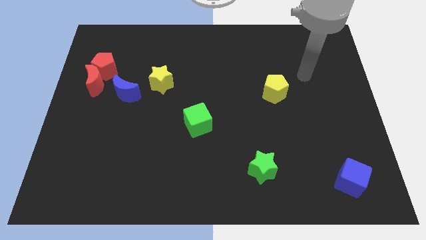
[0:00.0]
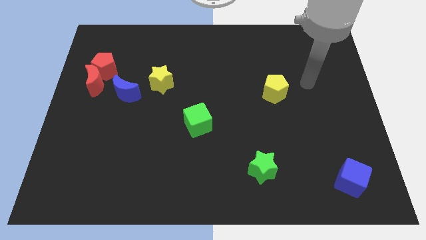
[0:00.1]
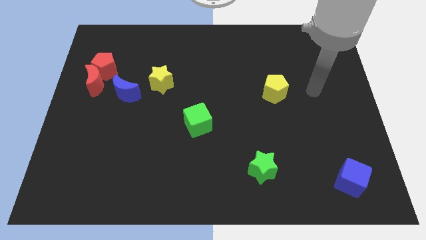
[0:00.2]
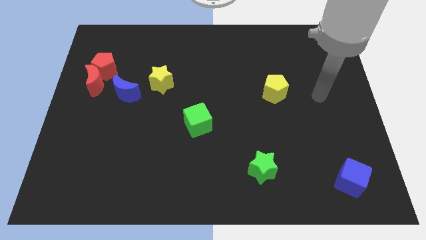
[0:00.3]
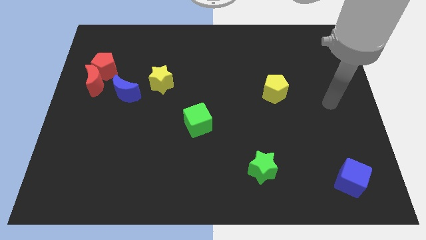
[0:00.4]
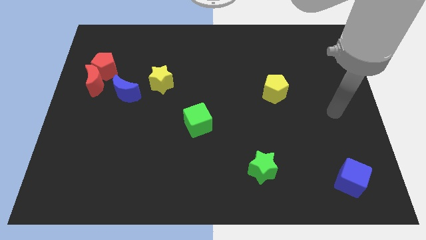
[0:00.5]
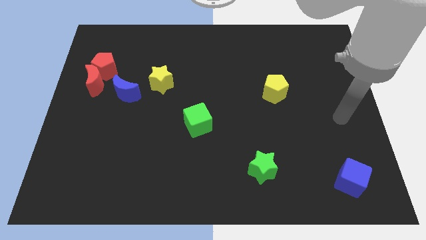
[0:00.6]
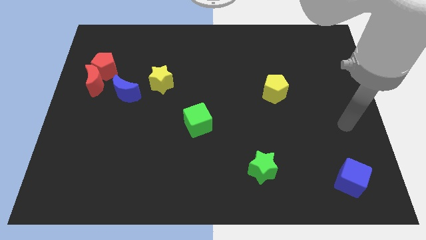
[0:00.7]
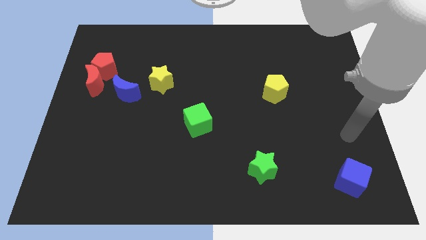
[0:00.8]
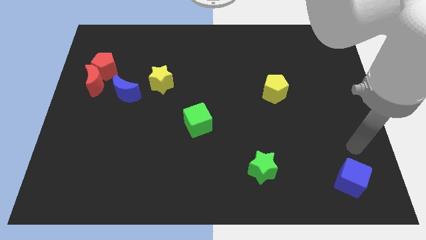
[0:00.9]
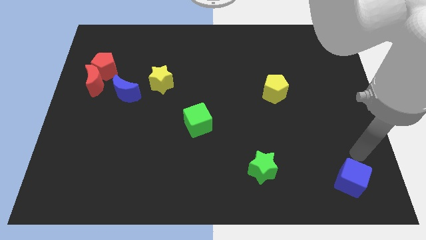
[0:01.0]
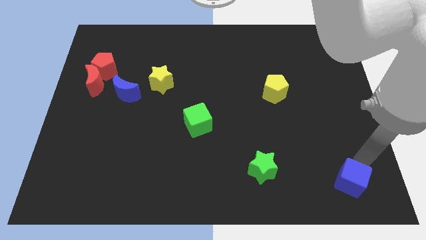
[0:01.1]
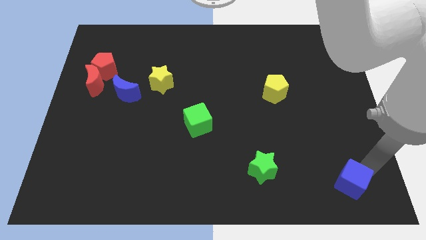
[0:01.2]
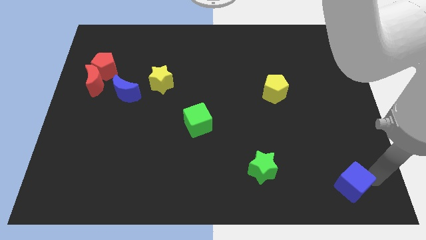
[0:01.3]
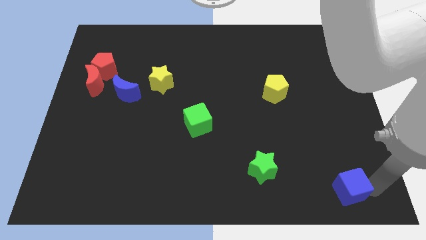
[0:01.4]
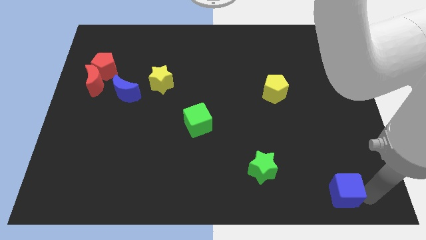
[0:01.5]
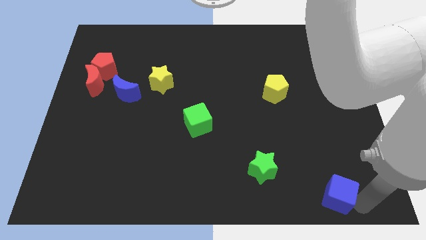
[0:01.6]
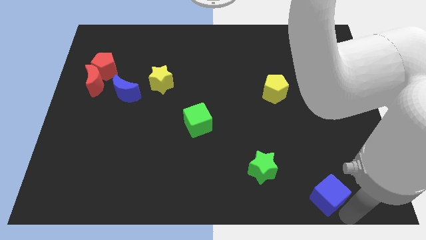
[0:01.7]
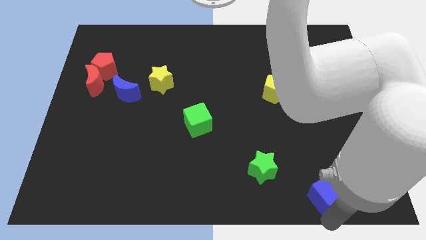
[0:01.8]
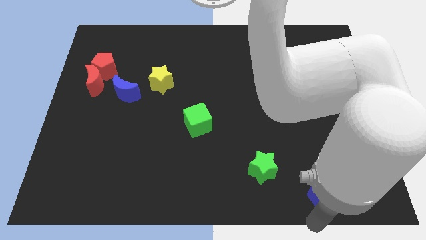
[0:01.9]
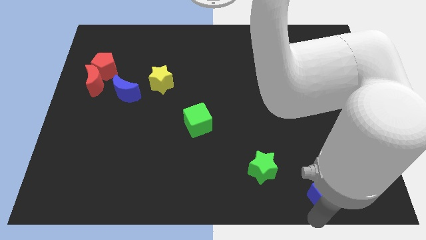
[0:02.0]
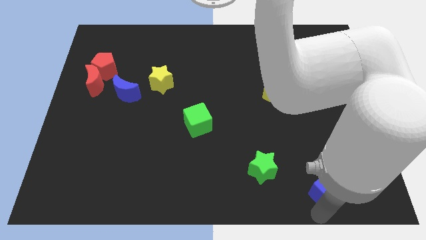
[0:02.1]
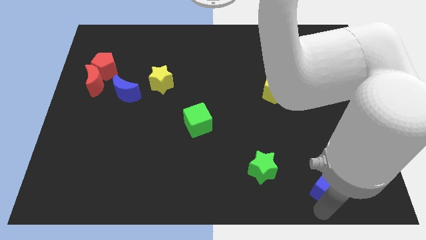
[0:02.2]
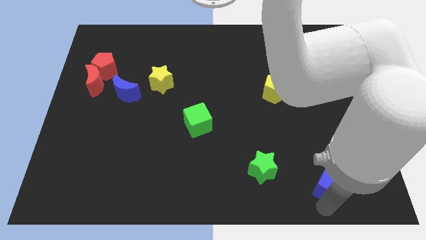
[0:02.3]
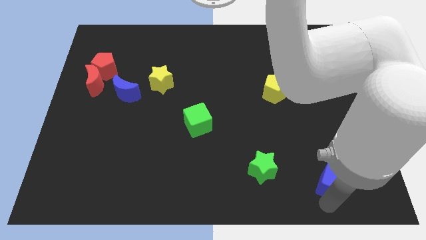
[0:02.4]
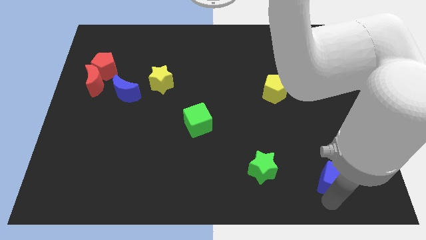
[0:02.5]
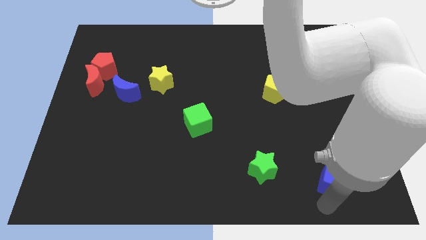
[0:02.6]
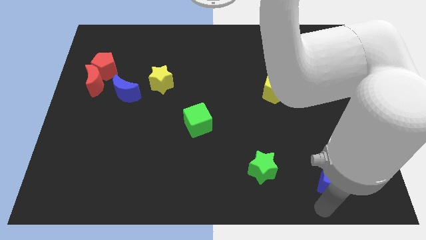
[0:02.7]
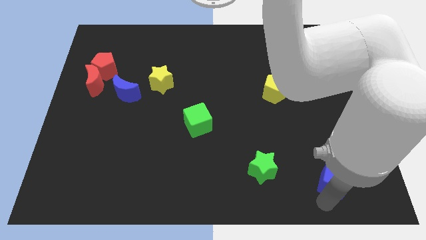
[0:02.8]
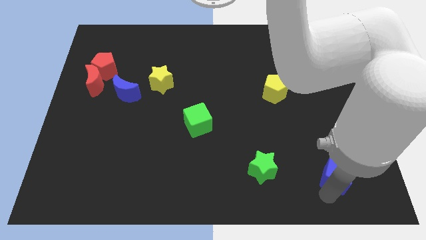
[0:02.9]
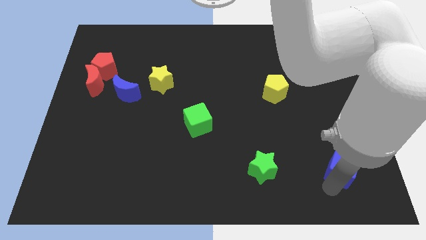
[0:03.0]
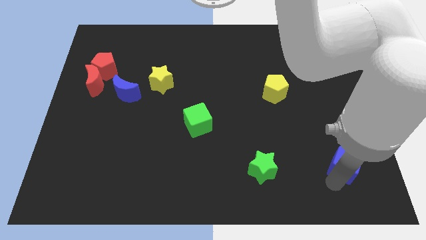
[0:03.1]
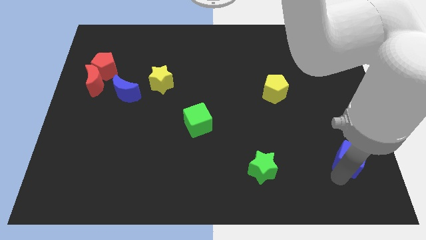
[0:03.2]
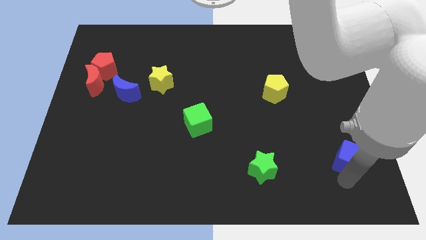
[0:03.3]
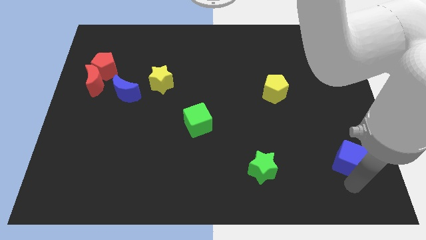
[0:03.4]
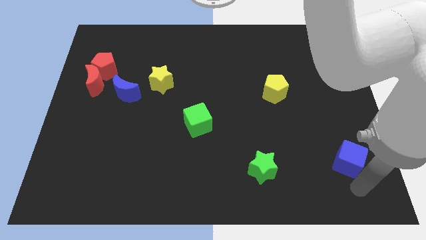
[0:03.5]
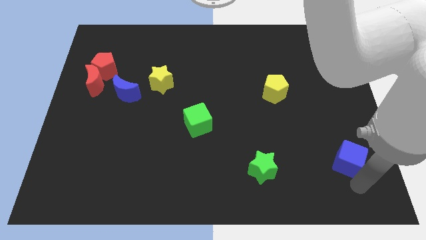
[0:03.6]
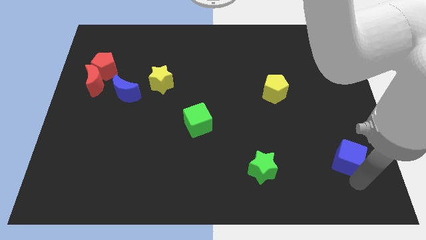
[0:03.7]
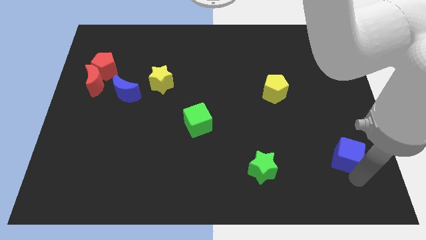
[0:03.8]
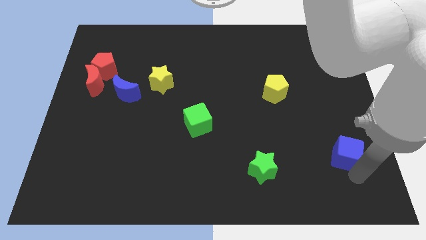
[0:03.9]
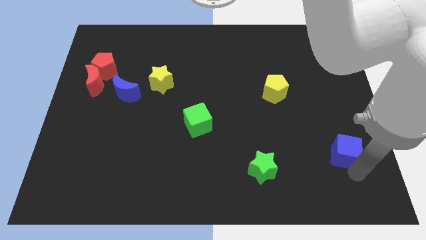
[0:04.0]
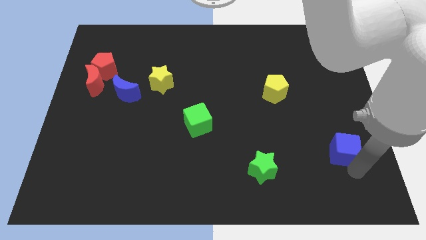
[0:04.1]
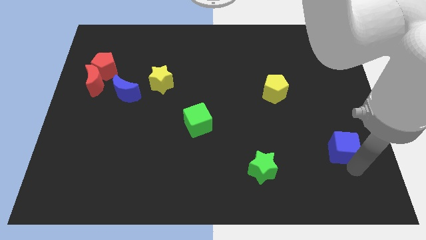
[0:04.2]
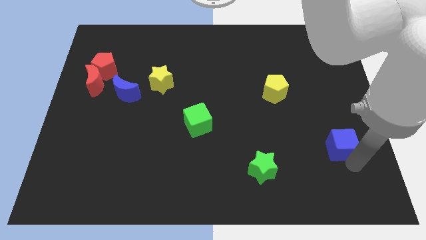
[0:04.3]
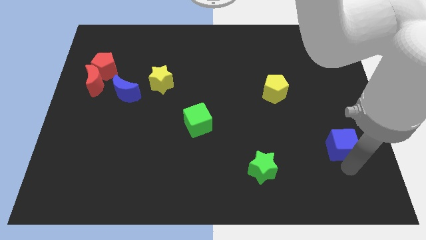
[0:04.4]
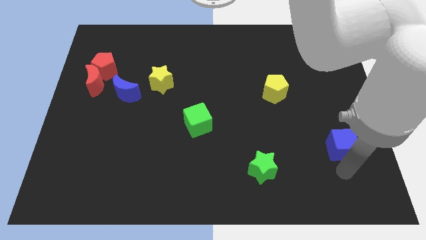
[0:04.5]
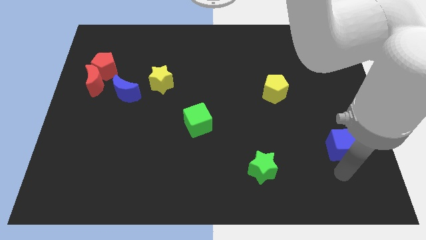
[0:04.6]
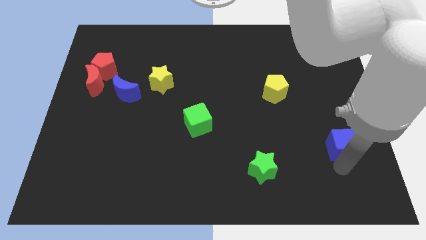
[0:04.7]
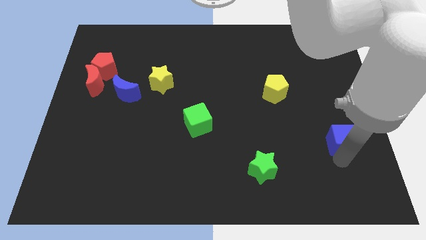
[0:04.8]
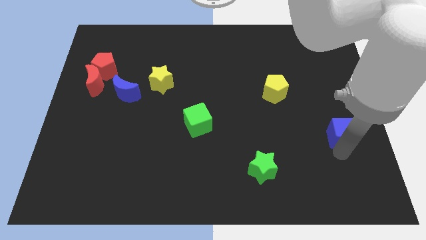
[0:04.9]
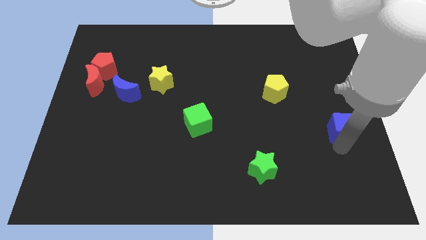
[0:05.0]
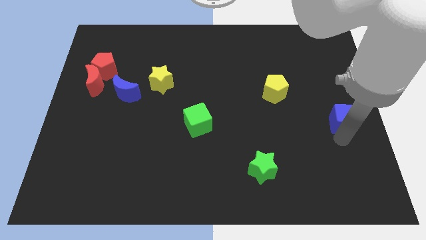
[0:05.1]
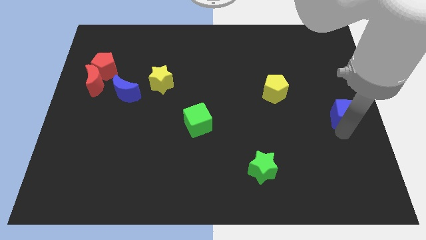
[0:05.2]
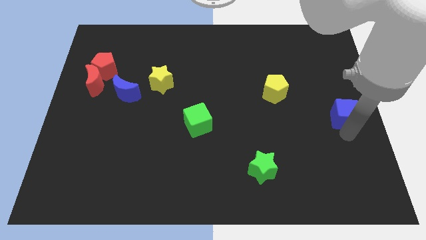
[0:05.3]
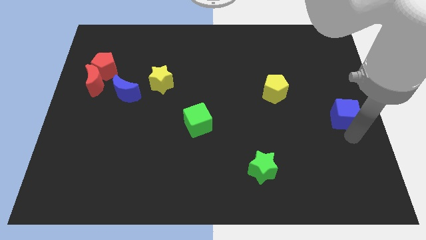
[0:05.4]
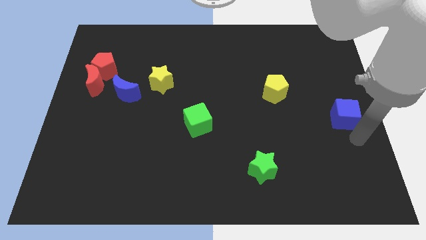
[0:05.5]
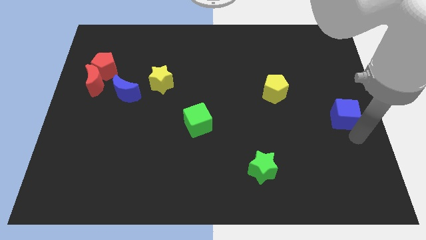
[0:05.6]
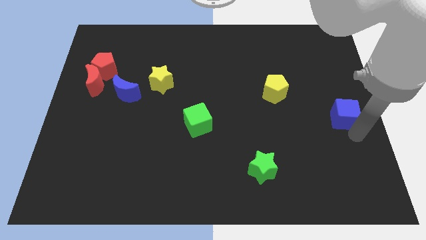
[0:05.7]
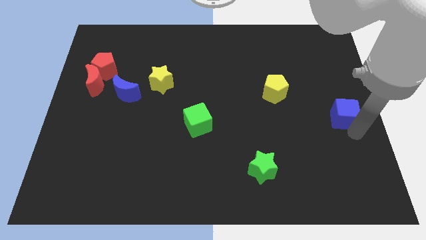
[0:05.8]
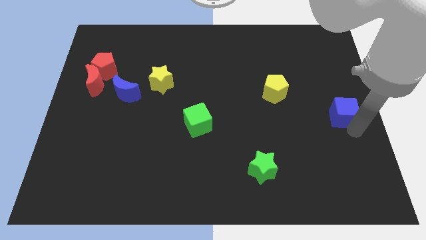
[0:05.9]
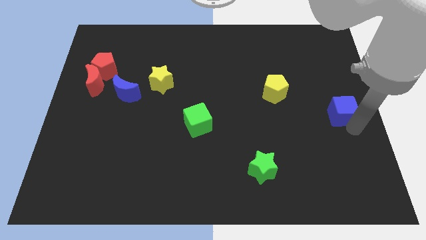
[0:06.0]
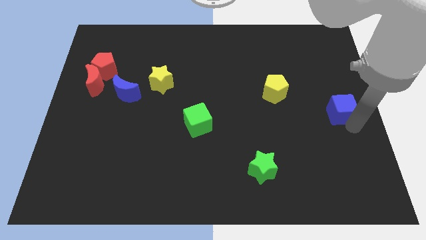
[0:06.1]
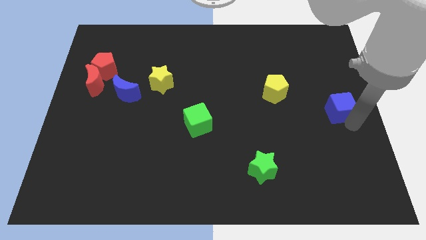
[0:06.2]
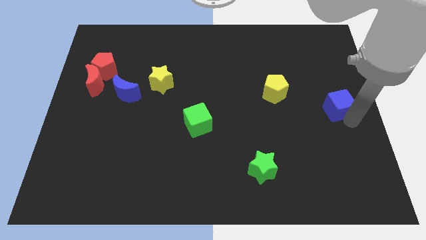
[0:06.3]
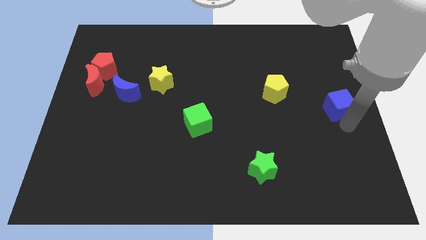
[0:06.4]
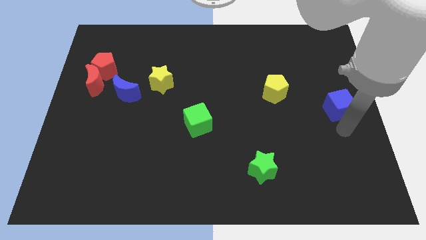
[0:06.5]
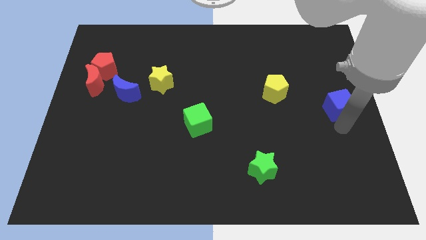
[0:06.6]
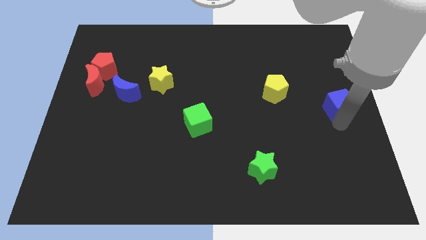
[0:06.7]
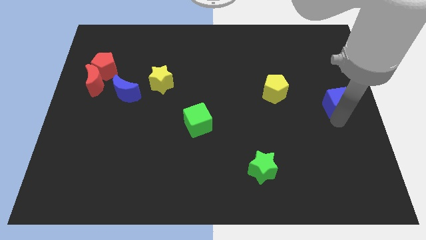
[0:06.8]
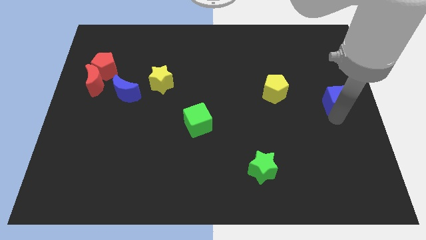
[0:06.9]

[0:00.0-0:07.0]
push the blue cube up

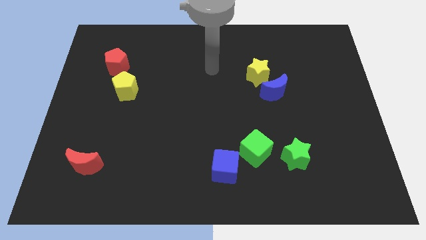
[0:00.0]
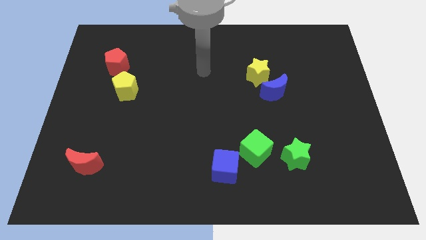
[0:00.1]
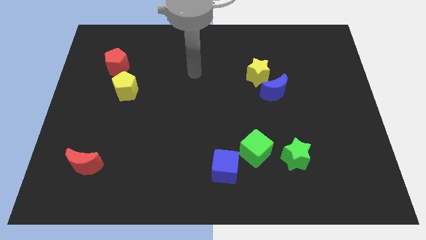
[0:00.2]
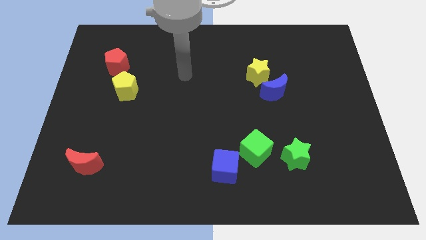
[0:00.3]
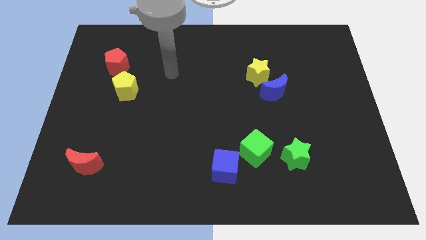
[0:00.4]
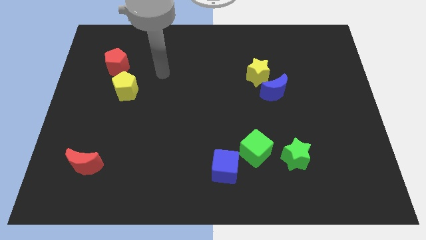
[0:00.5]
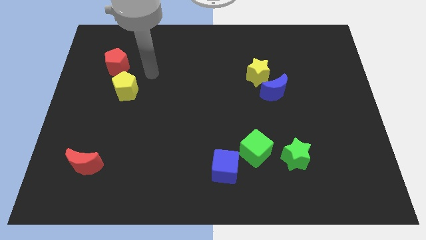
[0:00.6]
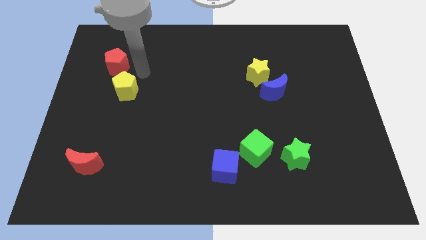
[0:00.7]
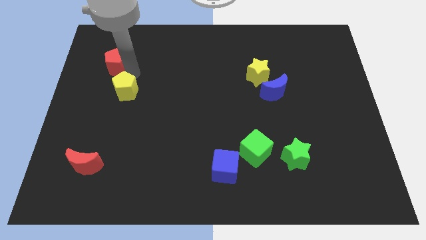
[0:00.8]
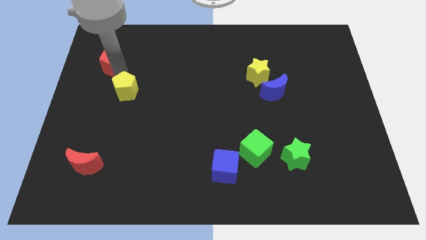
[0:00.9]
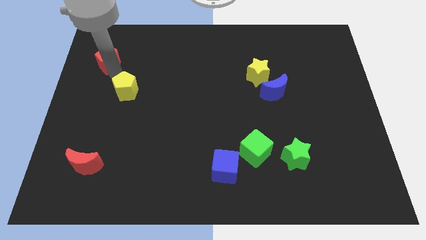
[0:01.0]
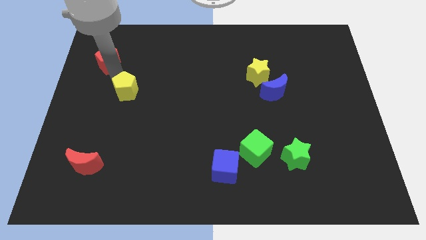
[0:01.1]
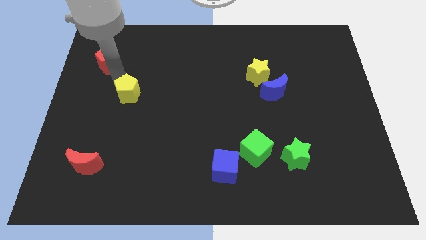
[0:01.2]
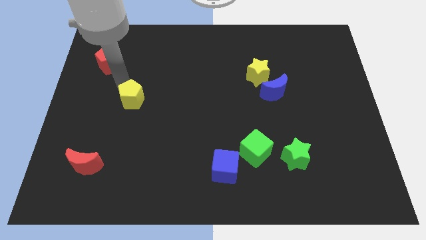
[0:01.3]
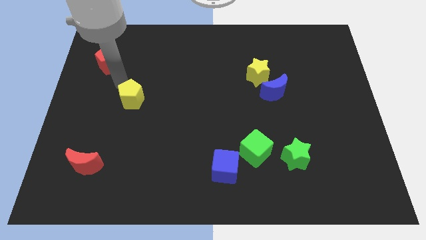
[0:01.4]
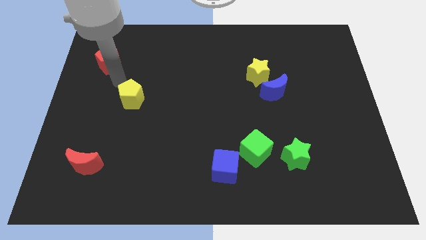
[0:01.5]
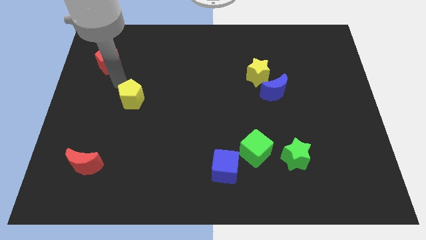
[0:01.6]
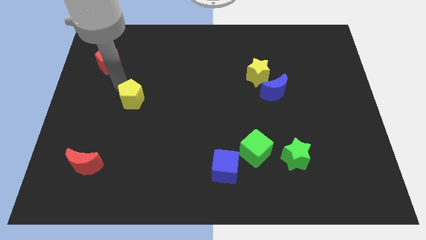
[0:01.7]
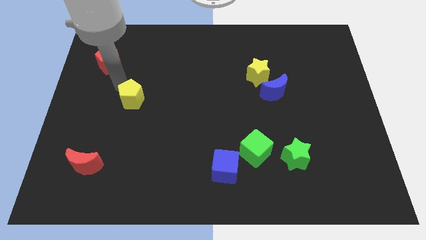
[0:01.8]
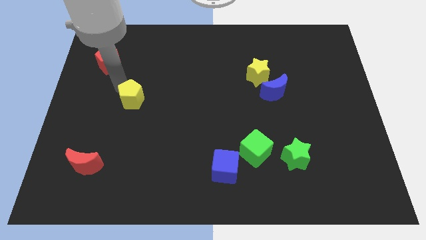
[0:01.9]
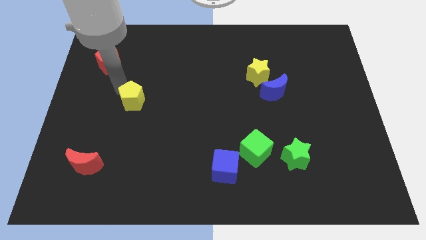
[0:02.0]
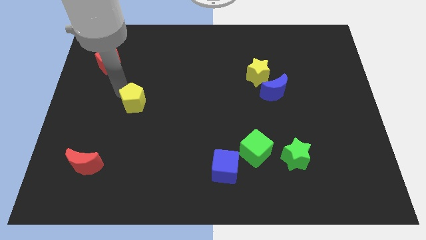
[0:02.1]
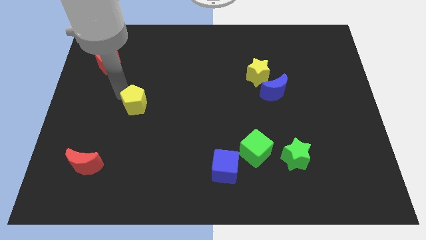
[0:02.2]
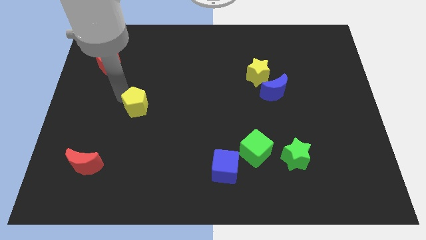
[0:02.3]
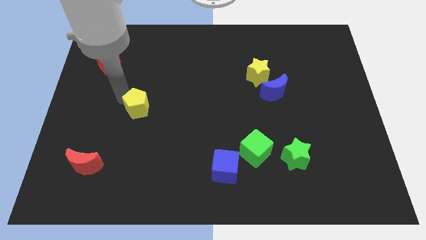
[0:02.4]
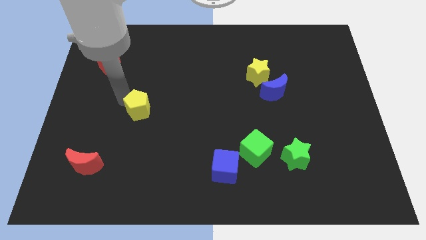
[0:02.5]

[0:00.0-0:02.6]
slide the yellow pentagon down and then to the right a bit
